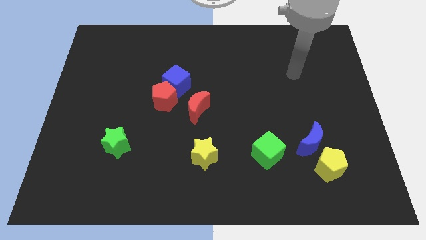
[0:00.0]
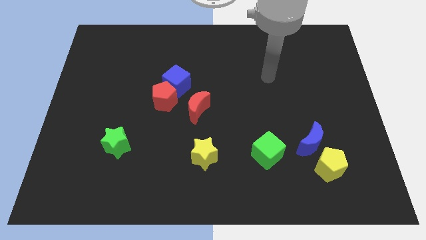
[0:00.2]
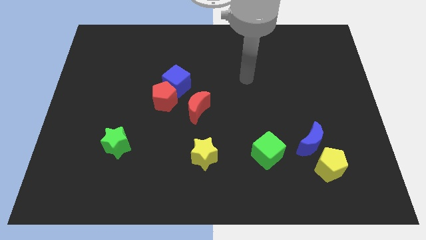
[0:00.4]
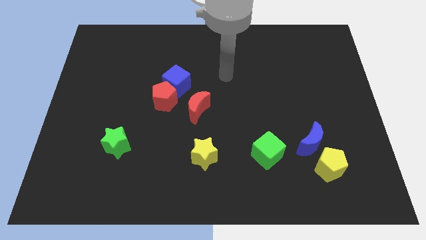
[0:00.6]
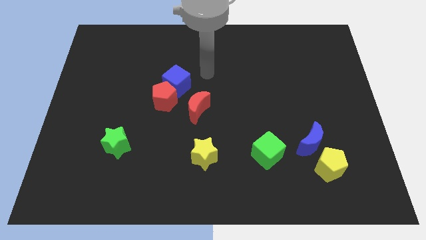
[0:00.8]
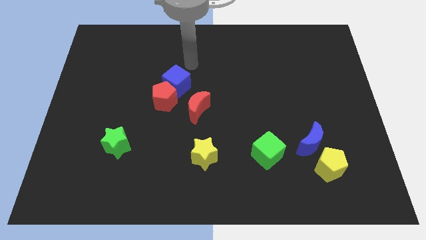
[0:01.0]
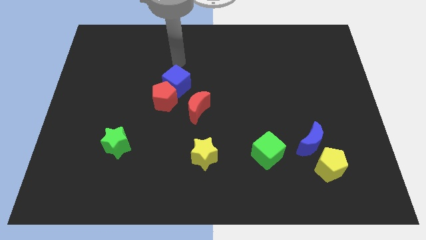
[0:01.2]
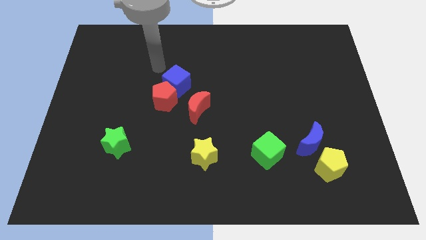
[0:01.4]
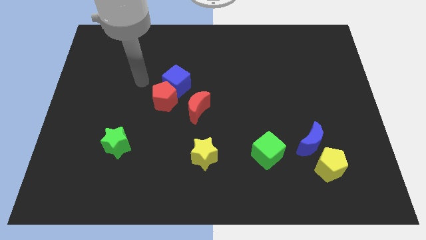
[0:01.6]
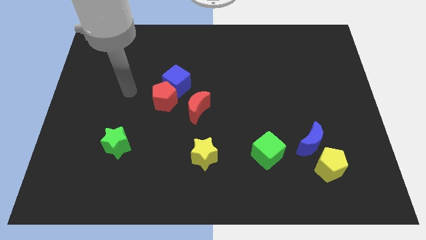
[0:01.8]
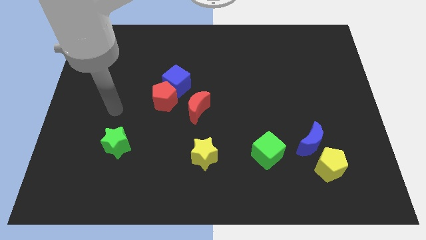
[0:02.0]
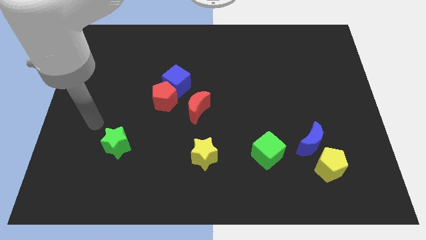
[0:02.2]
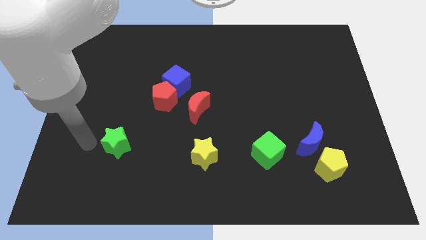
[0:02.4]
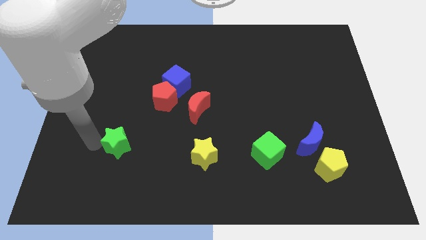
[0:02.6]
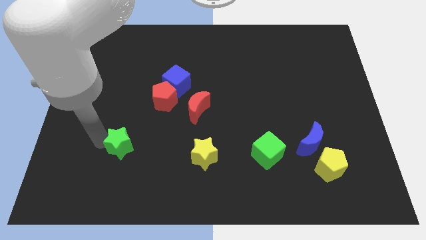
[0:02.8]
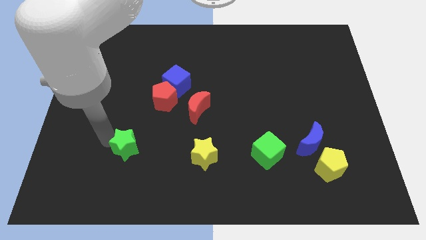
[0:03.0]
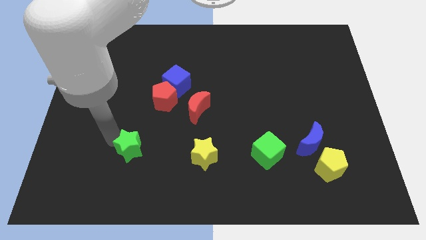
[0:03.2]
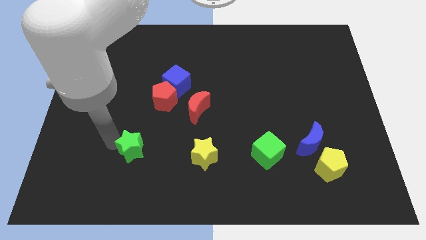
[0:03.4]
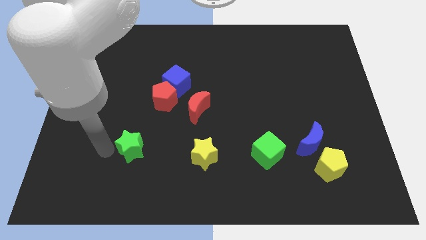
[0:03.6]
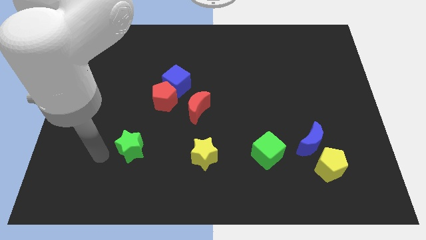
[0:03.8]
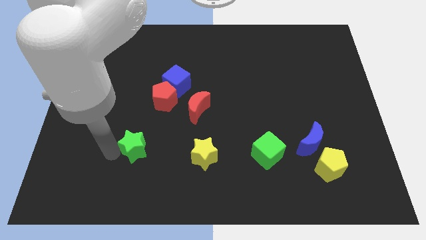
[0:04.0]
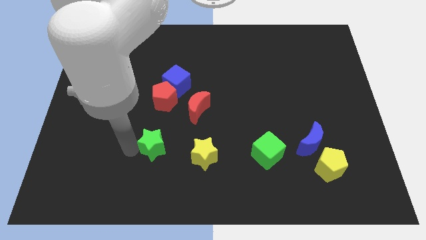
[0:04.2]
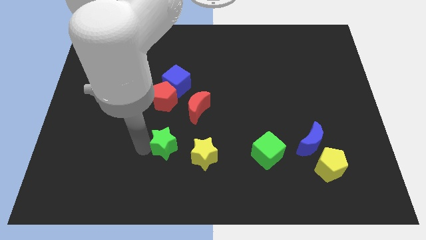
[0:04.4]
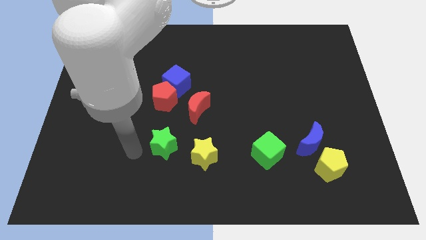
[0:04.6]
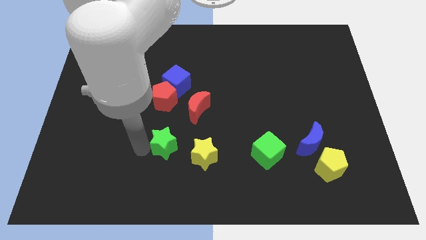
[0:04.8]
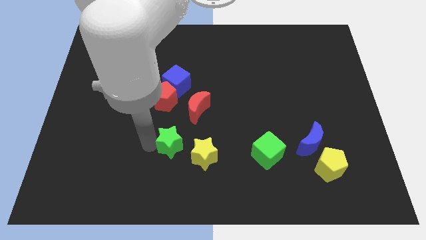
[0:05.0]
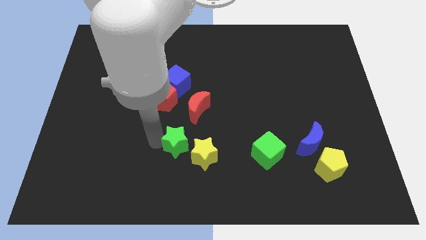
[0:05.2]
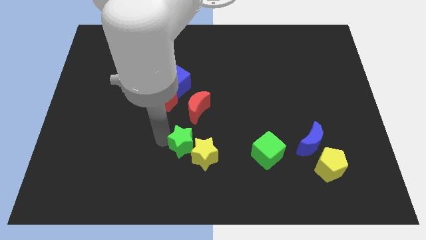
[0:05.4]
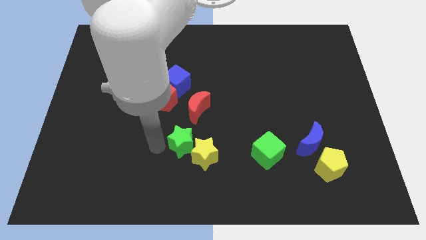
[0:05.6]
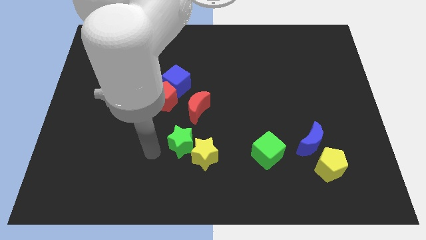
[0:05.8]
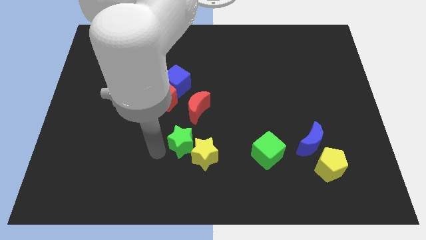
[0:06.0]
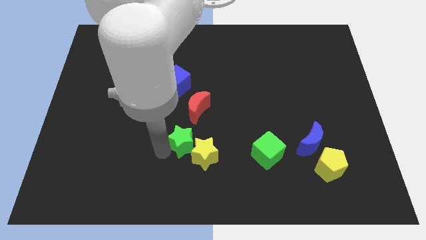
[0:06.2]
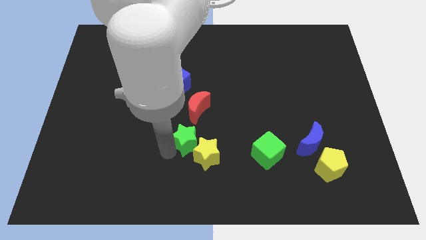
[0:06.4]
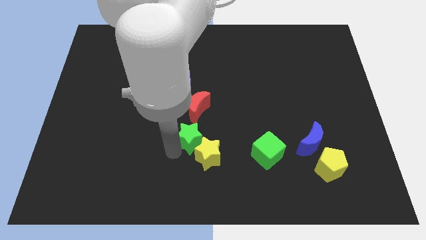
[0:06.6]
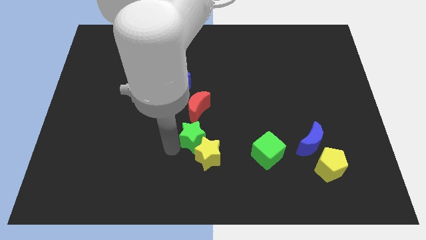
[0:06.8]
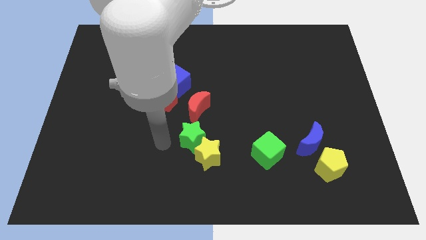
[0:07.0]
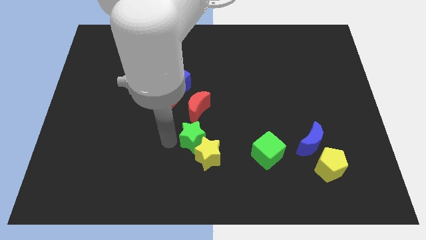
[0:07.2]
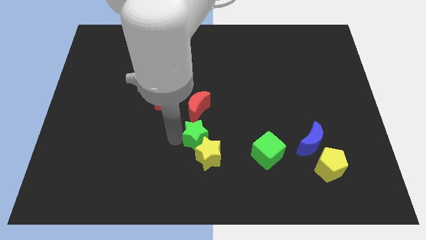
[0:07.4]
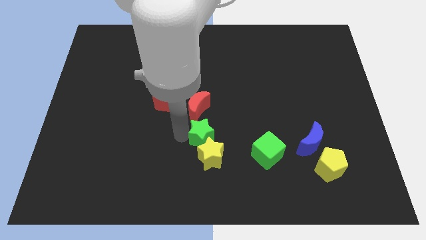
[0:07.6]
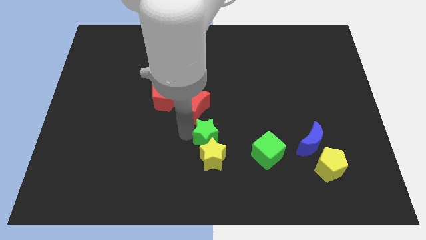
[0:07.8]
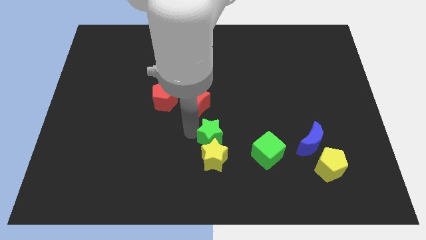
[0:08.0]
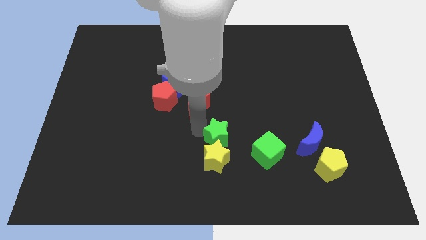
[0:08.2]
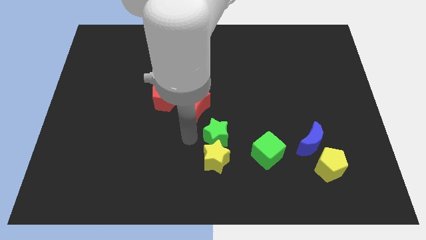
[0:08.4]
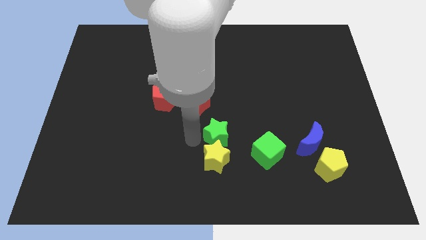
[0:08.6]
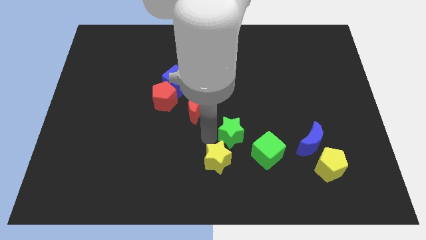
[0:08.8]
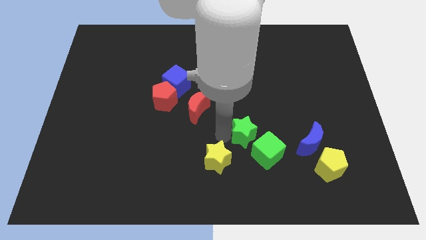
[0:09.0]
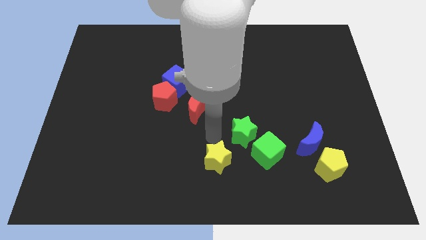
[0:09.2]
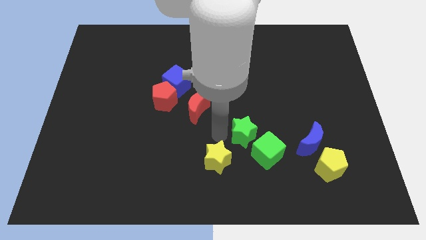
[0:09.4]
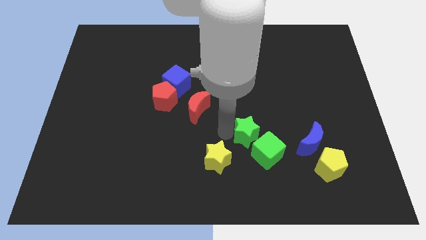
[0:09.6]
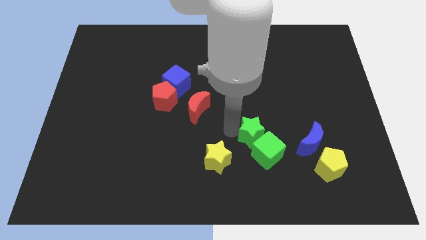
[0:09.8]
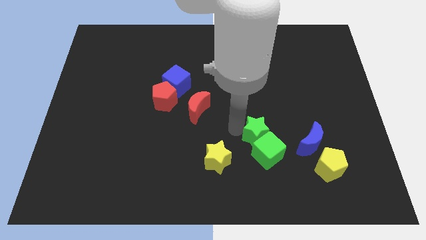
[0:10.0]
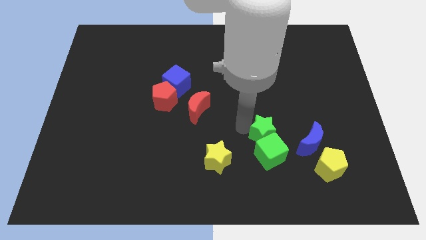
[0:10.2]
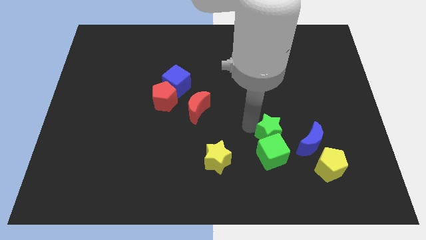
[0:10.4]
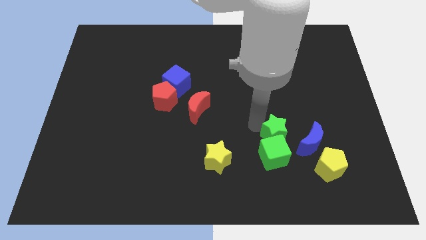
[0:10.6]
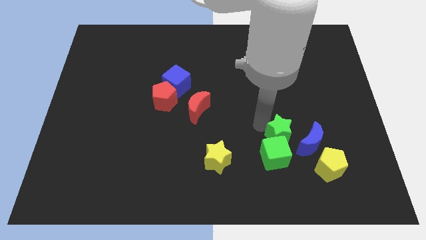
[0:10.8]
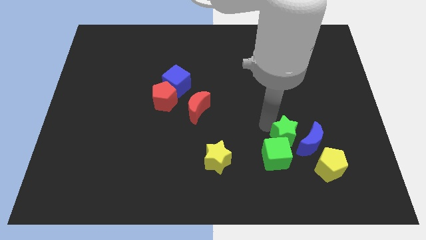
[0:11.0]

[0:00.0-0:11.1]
put the green star towards the blue moon

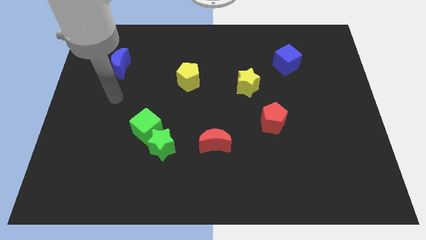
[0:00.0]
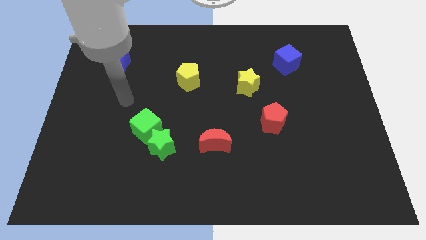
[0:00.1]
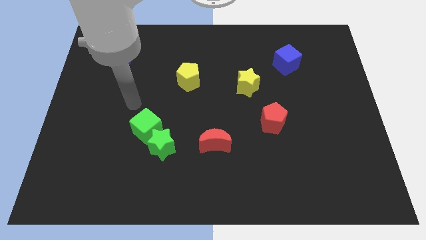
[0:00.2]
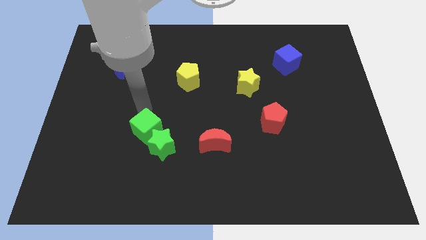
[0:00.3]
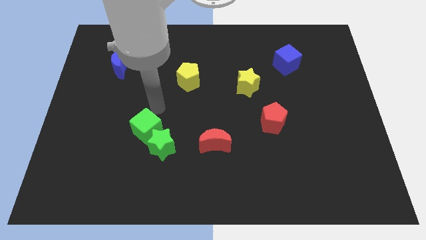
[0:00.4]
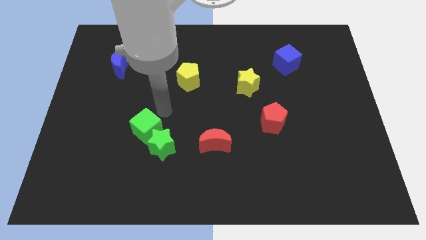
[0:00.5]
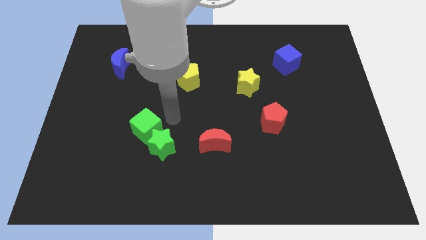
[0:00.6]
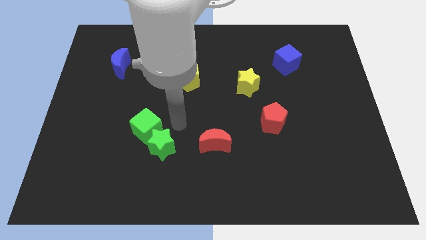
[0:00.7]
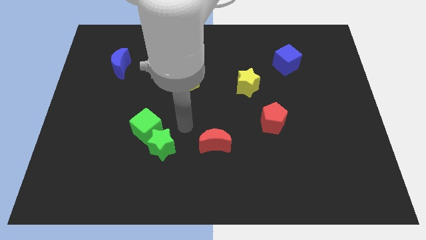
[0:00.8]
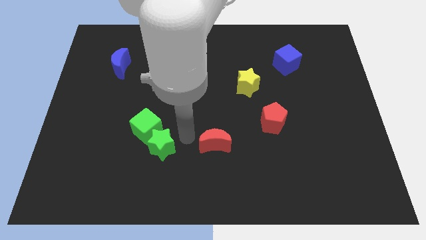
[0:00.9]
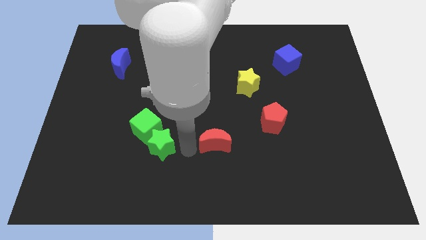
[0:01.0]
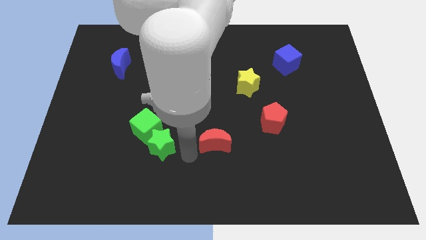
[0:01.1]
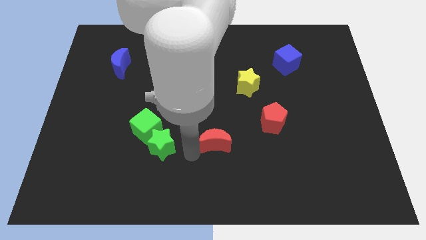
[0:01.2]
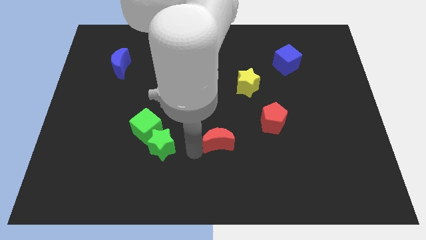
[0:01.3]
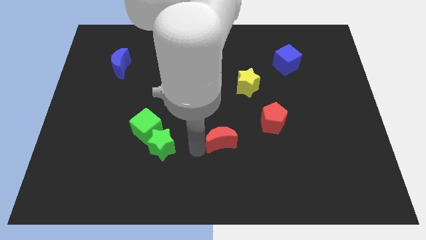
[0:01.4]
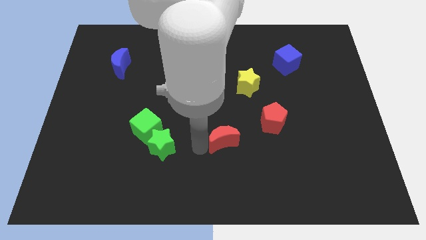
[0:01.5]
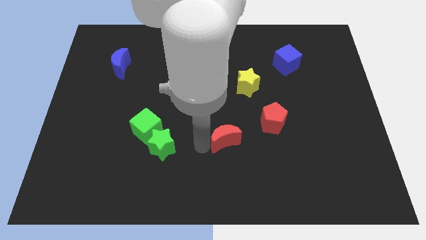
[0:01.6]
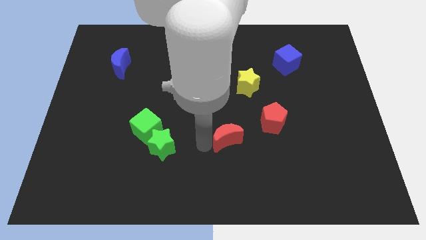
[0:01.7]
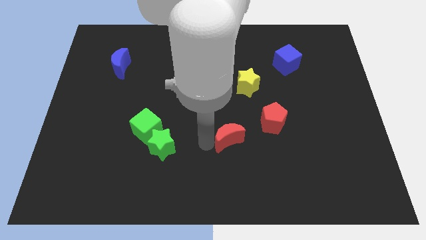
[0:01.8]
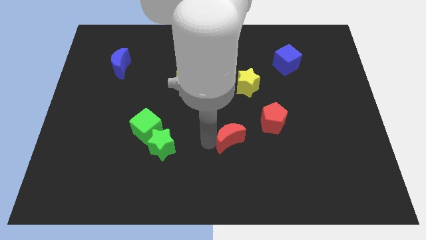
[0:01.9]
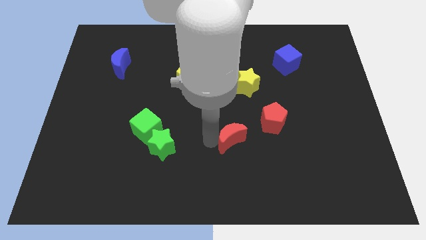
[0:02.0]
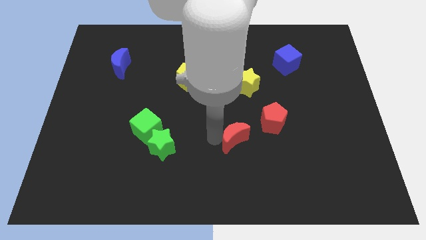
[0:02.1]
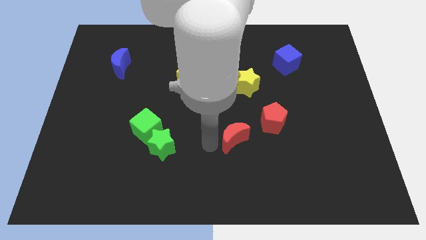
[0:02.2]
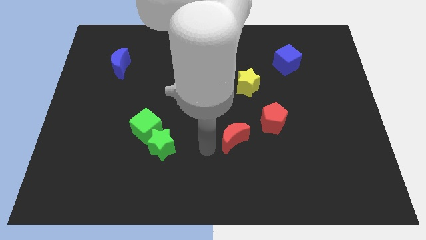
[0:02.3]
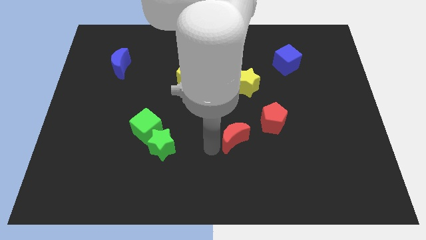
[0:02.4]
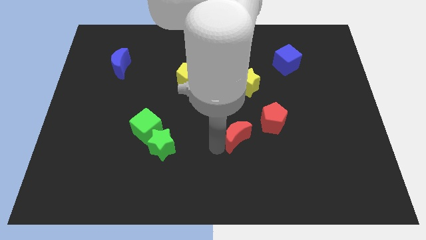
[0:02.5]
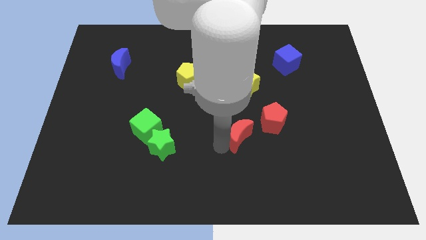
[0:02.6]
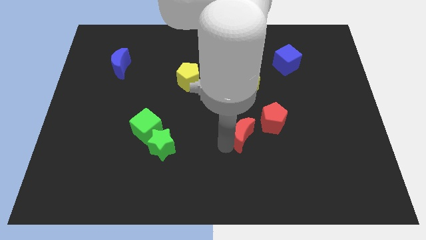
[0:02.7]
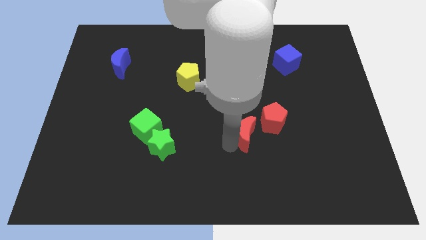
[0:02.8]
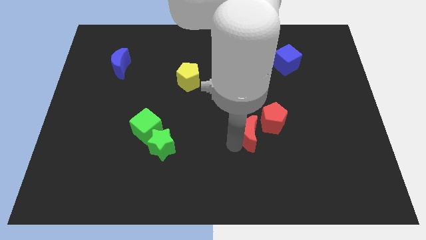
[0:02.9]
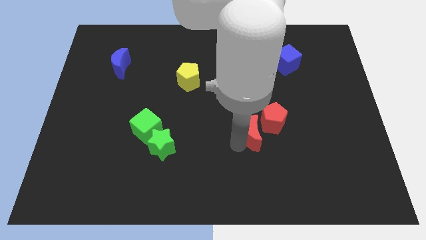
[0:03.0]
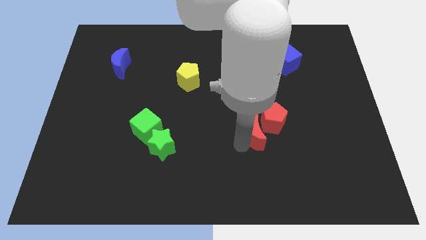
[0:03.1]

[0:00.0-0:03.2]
put the red moon towards the red pentagon
